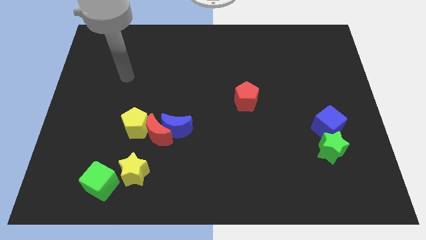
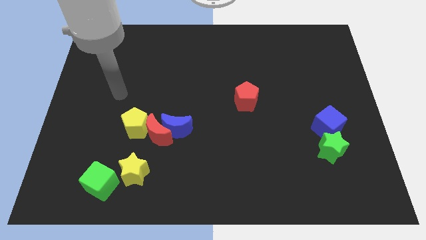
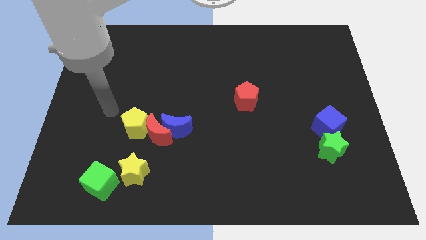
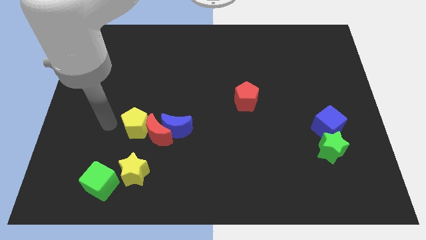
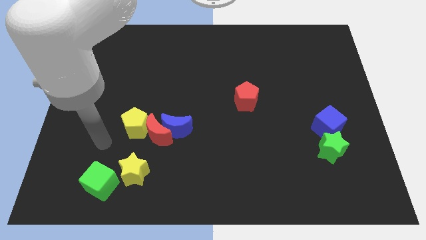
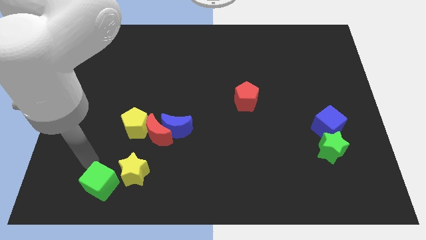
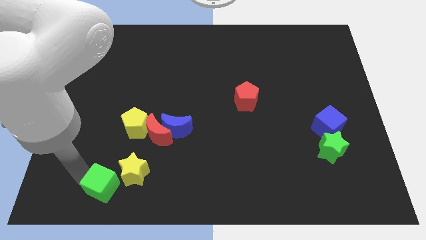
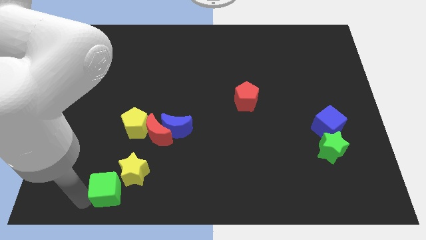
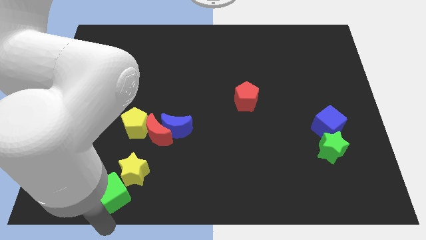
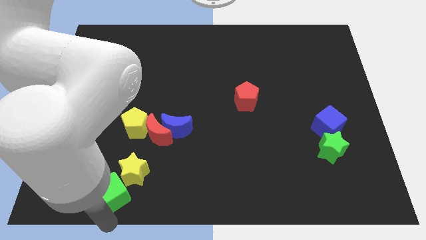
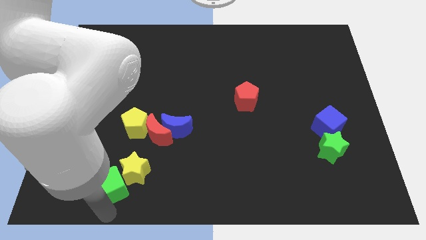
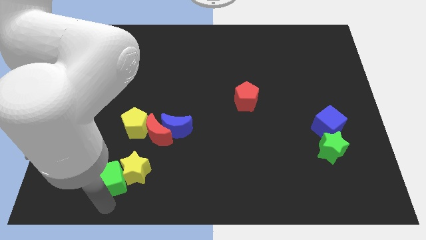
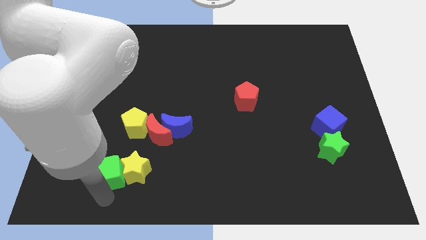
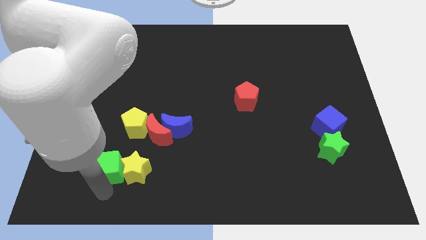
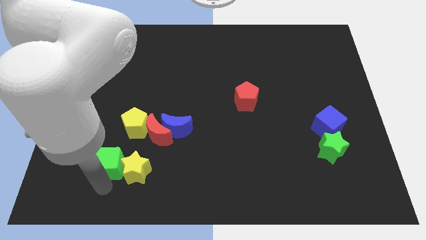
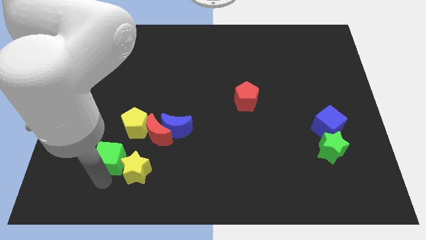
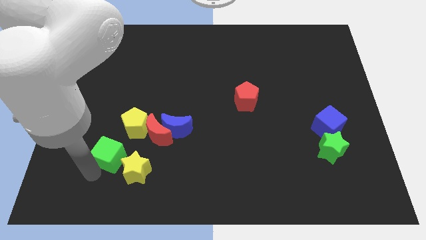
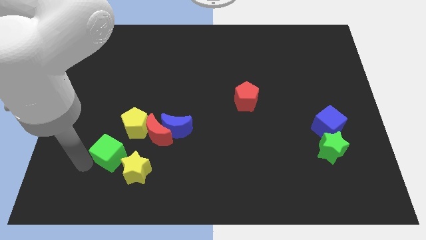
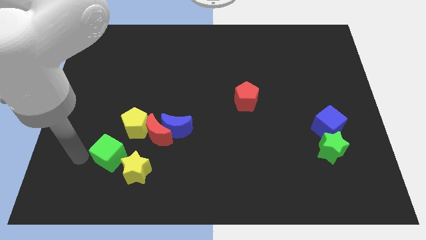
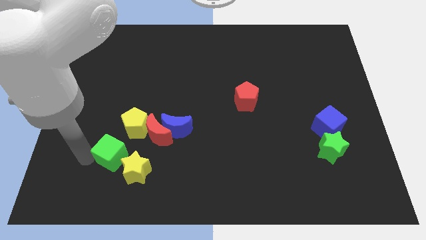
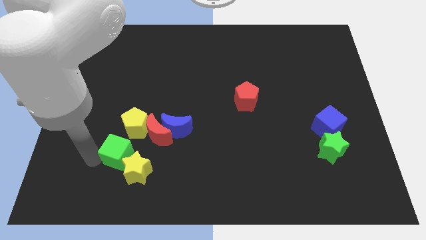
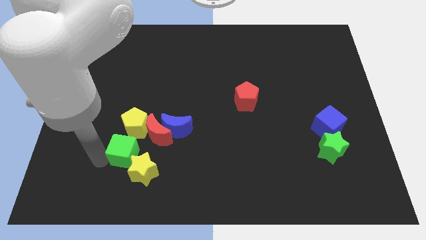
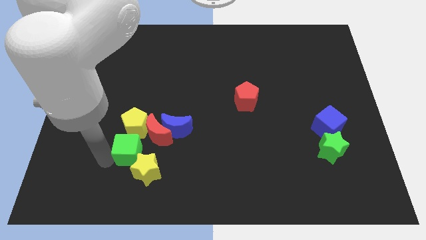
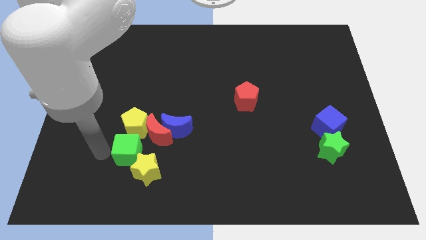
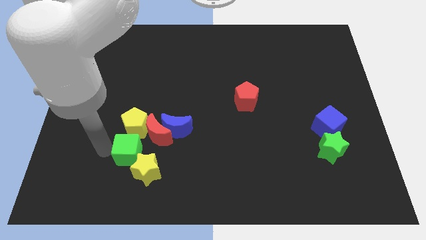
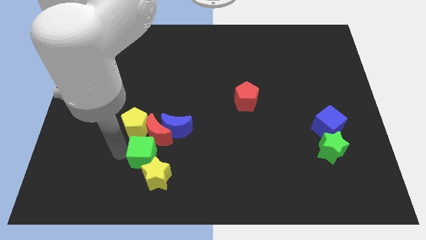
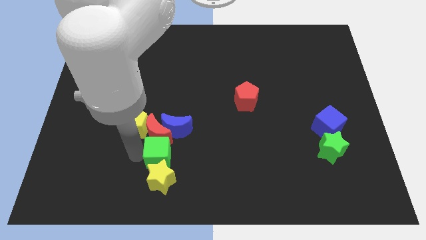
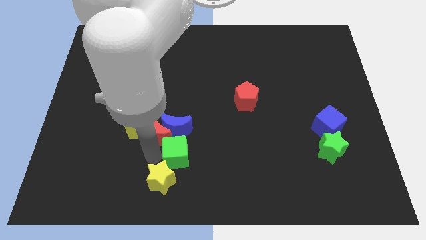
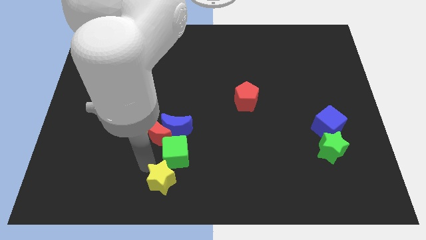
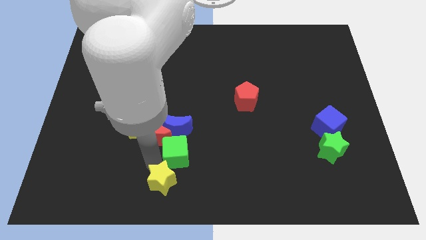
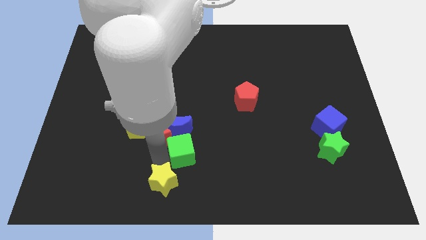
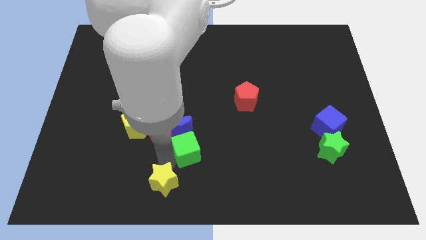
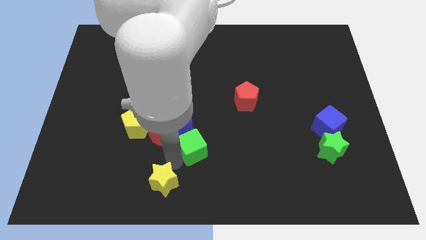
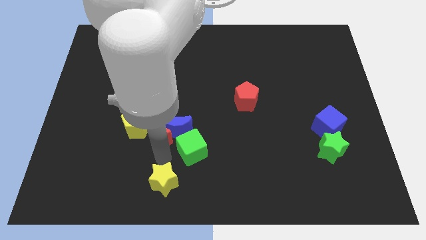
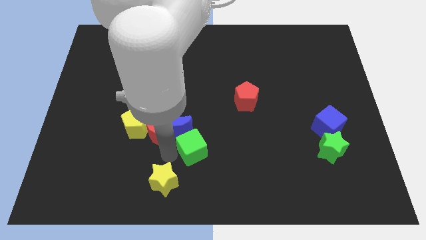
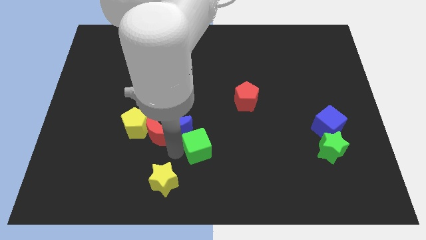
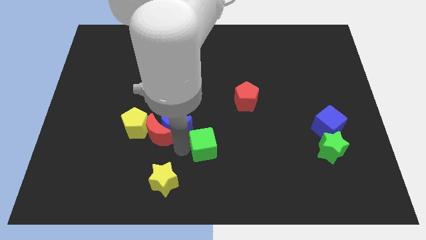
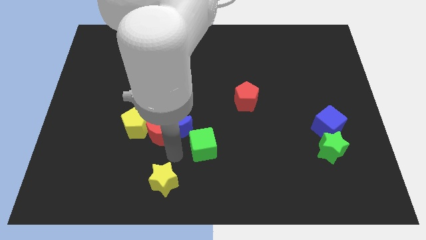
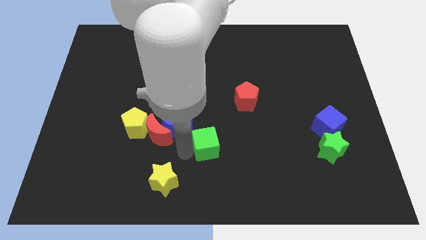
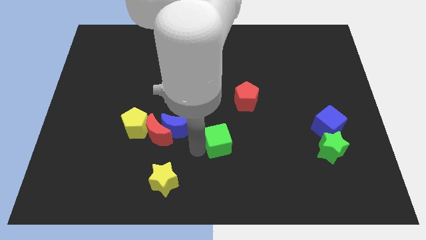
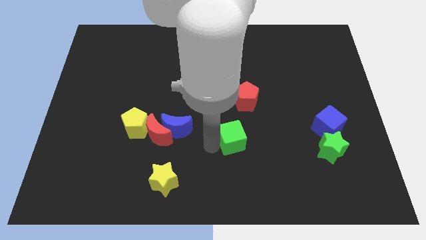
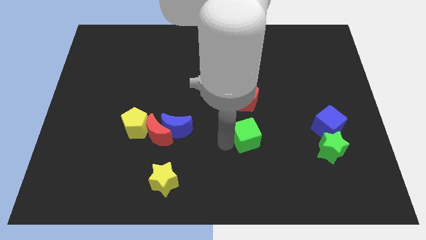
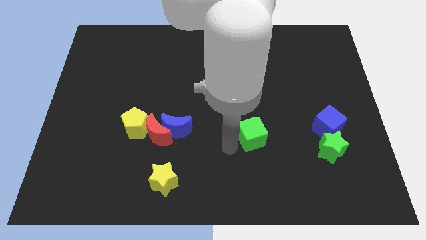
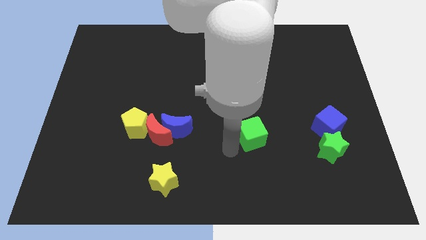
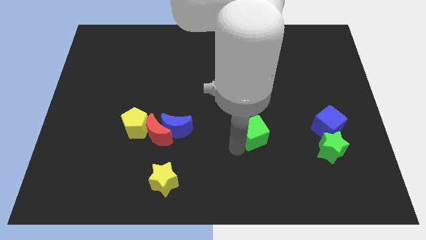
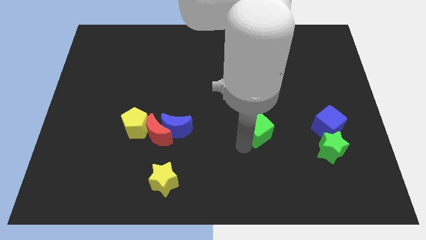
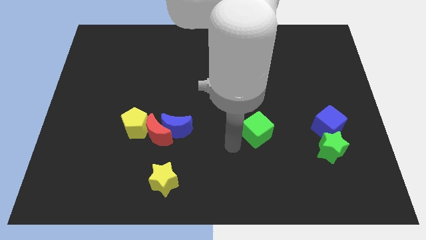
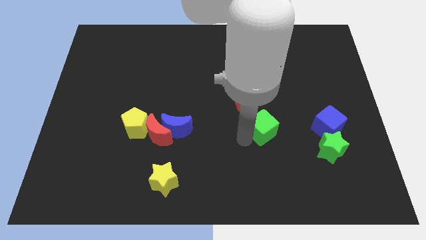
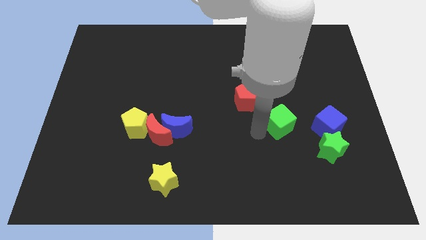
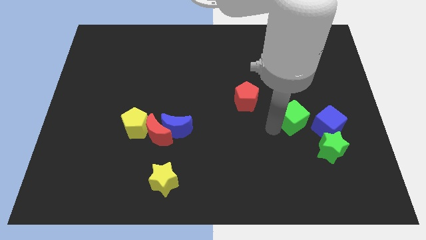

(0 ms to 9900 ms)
slide the green cube to the top left side of the blue cube

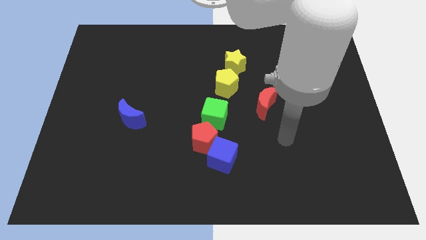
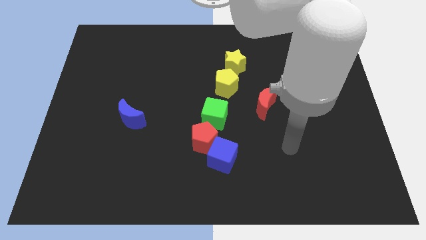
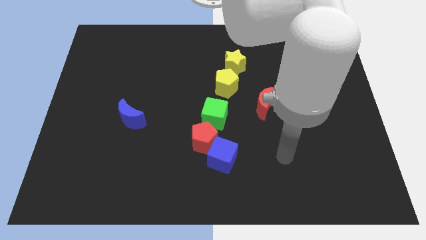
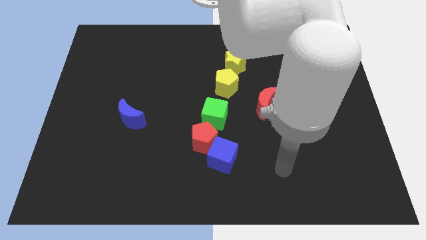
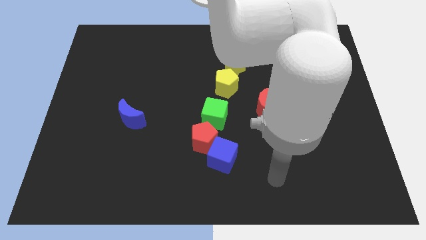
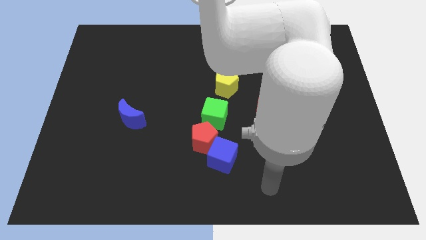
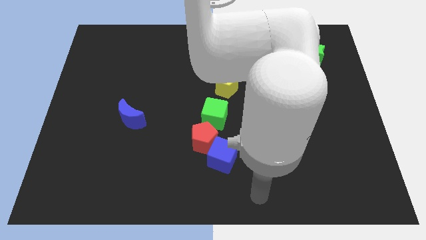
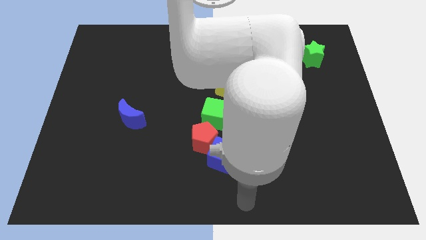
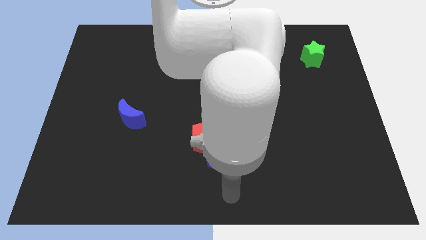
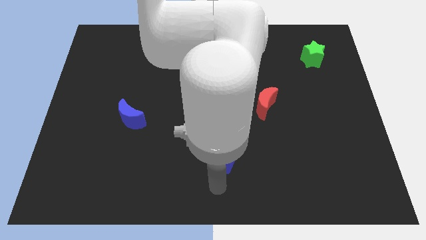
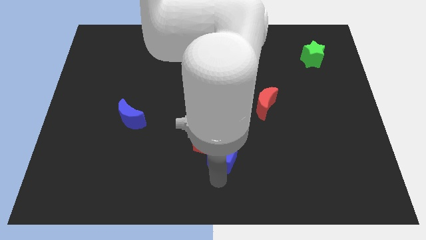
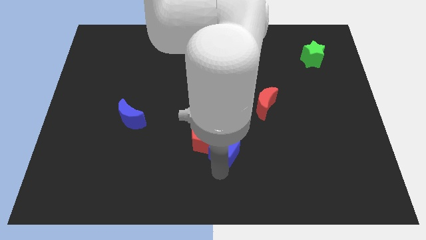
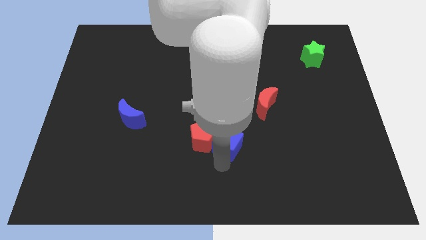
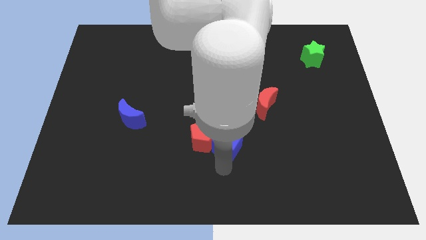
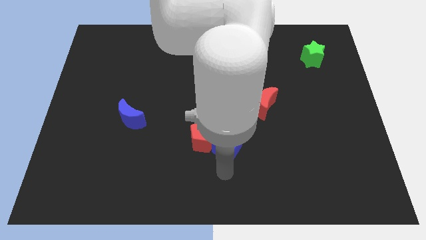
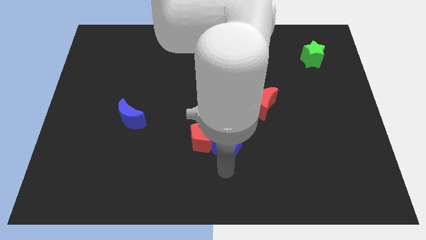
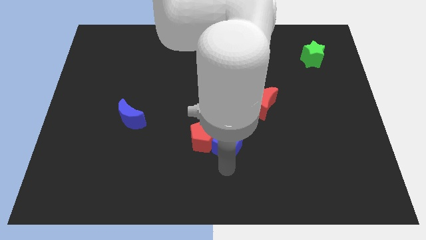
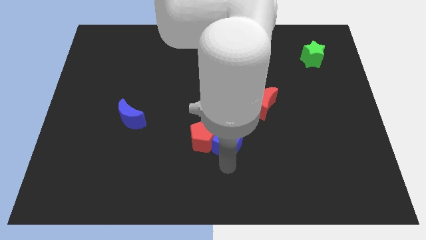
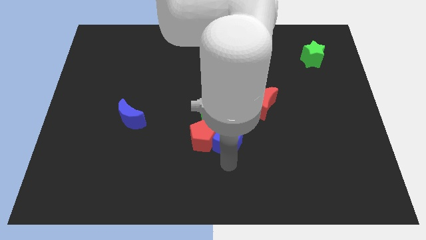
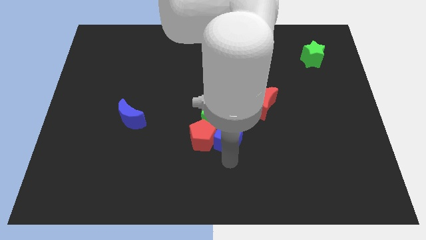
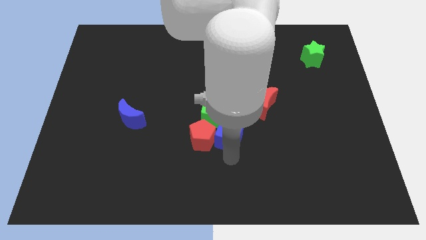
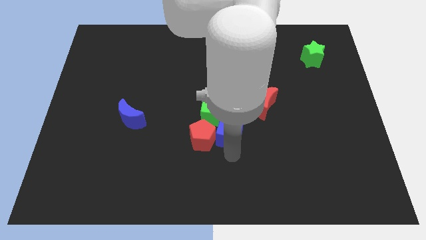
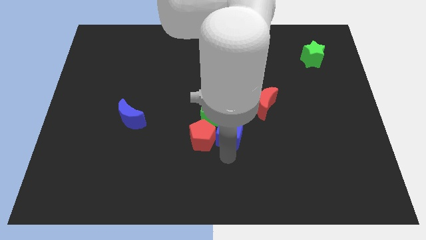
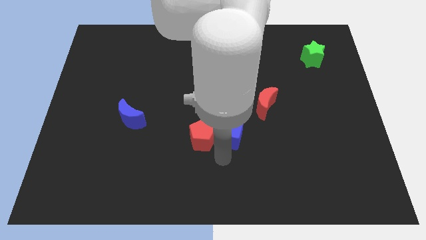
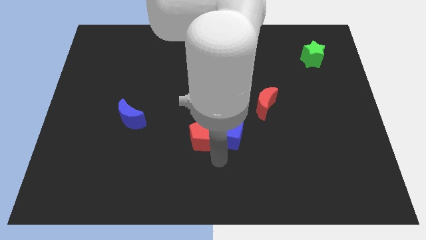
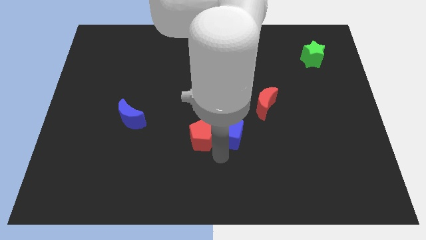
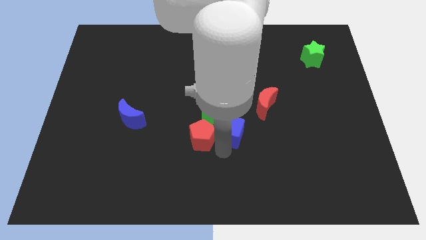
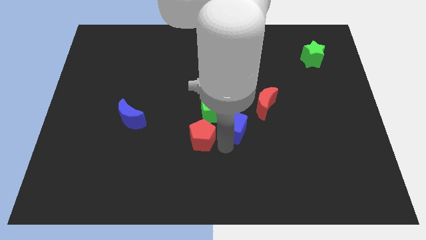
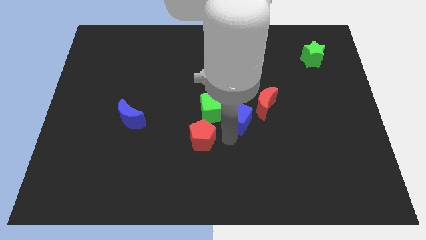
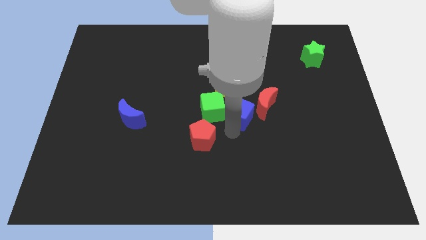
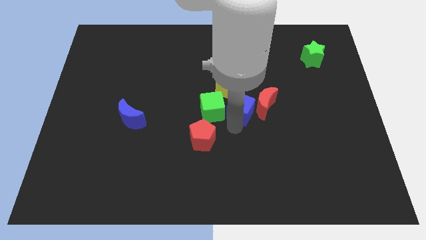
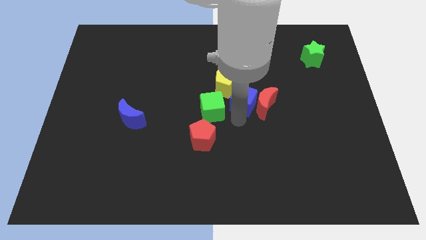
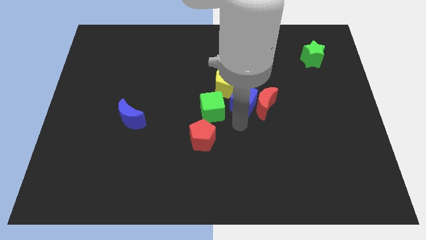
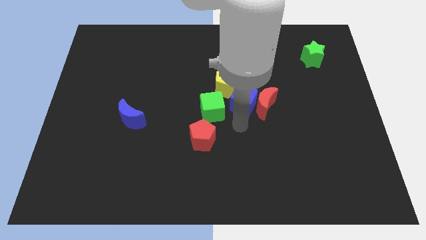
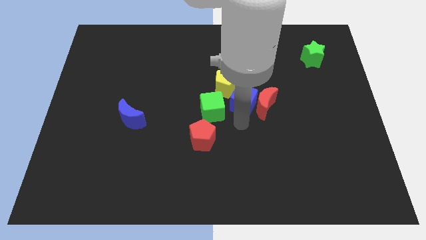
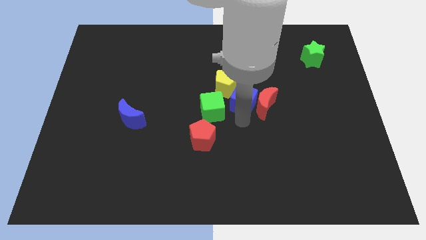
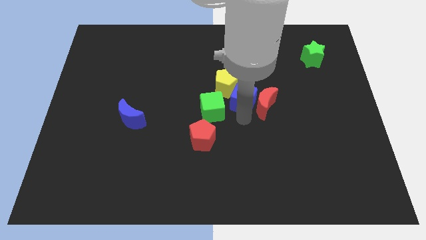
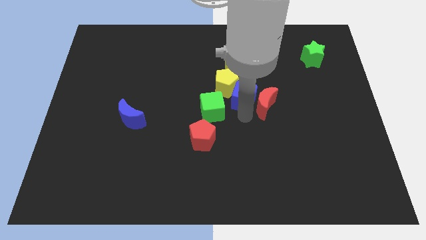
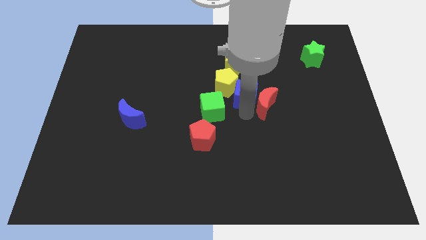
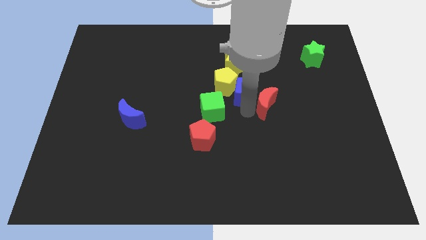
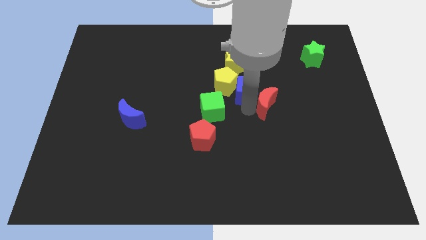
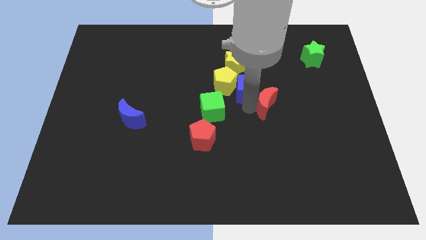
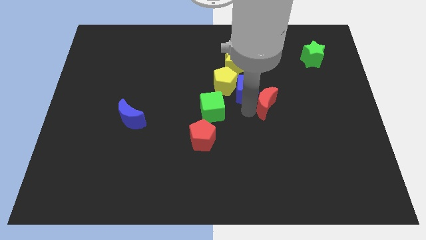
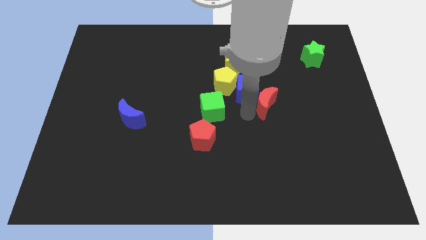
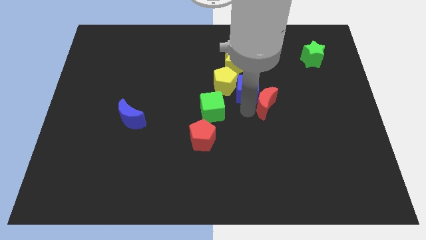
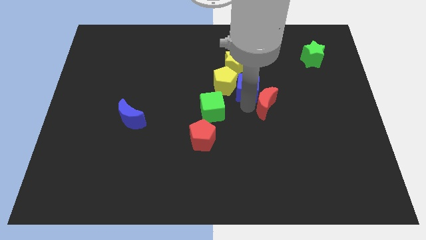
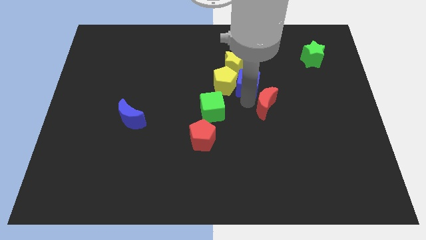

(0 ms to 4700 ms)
push the blue cube to the top right side of the yellow pentagon
